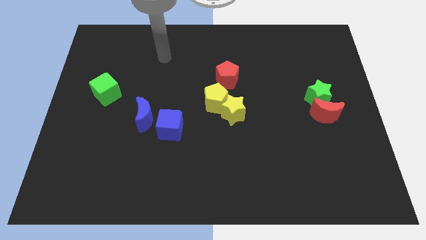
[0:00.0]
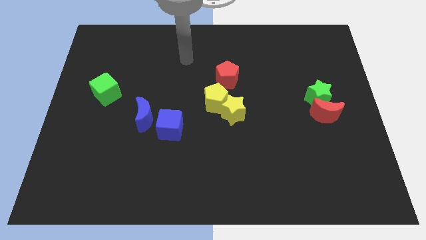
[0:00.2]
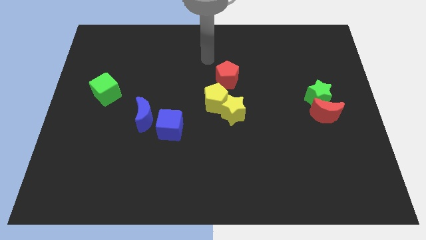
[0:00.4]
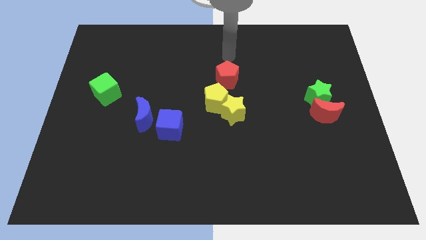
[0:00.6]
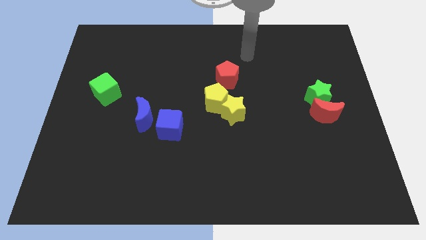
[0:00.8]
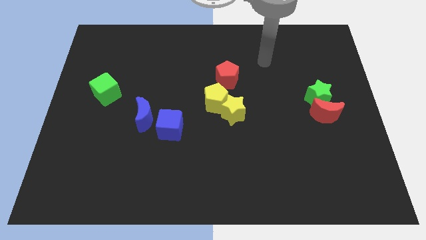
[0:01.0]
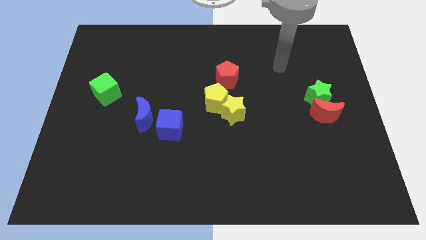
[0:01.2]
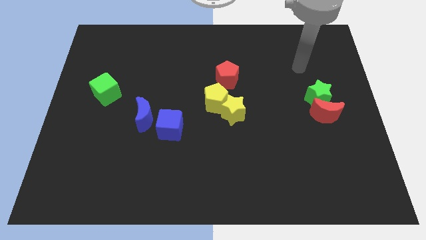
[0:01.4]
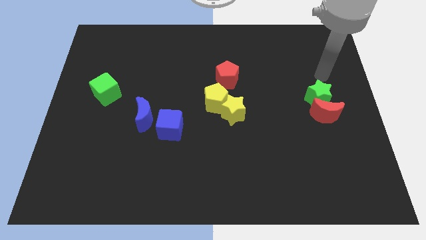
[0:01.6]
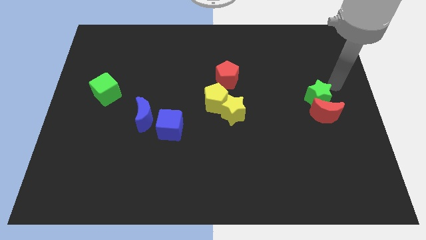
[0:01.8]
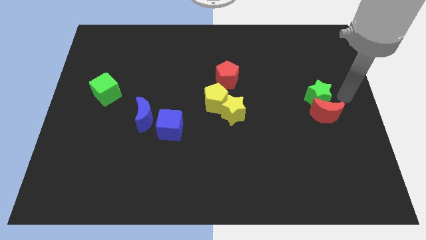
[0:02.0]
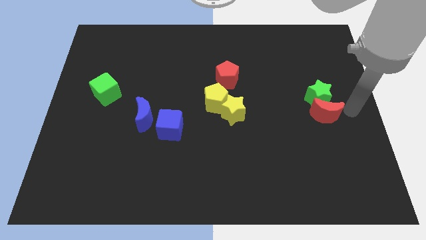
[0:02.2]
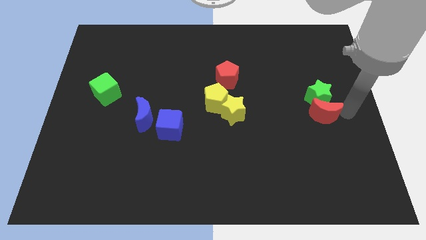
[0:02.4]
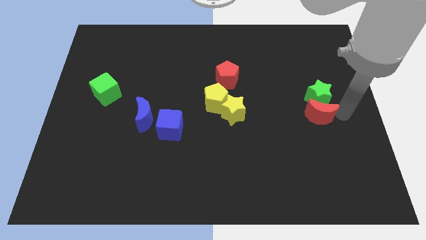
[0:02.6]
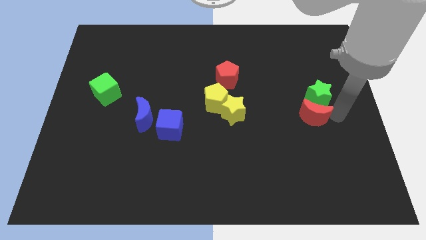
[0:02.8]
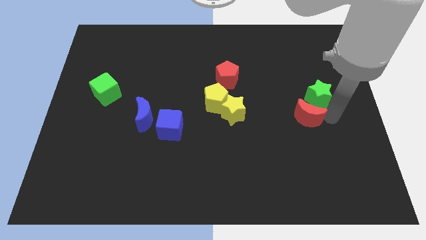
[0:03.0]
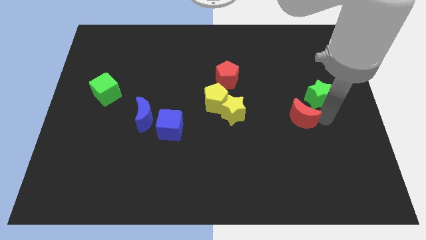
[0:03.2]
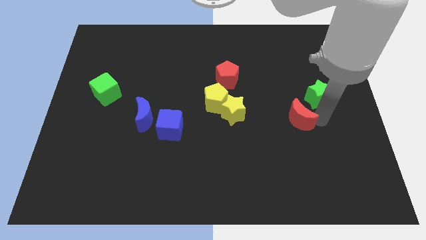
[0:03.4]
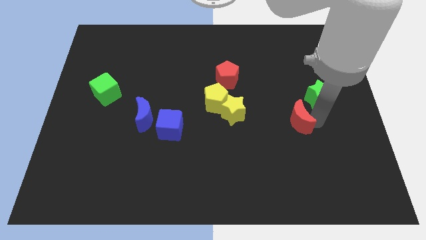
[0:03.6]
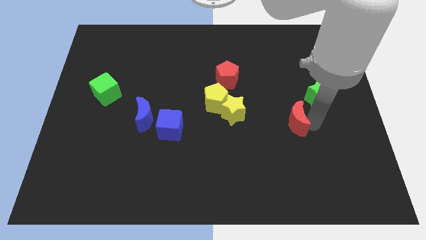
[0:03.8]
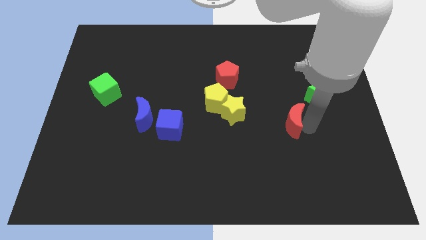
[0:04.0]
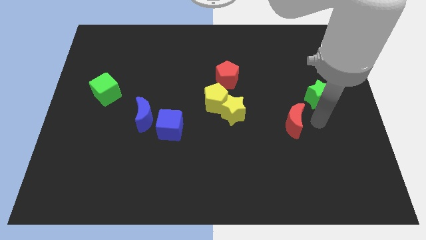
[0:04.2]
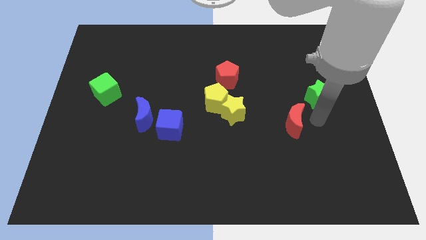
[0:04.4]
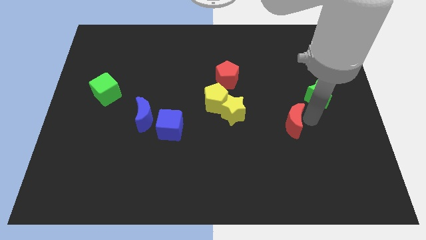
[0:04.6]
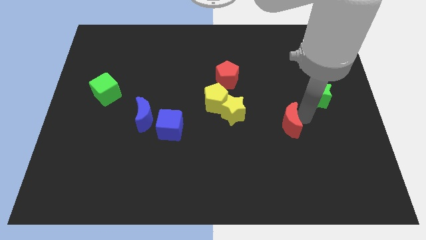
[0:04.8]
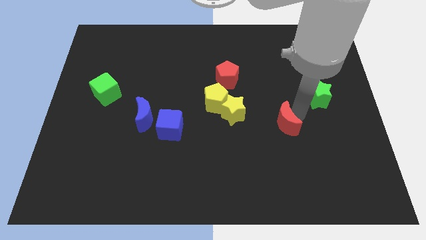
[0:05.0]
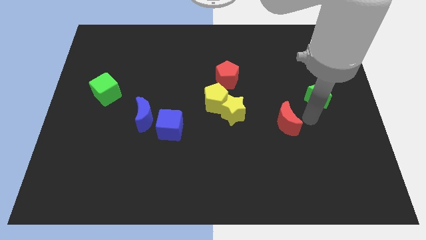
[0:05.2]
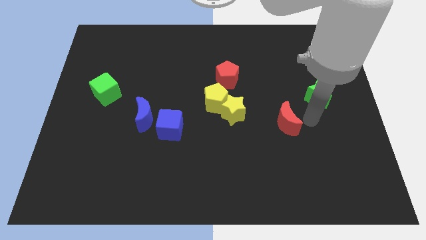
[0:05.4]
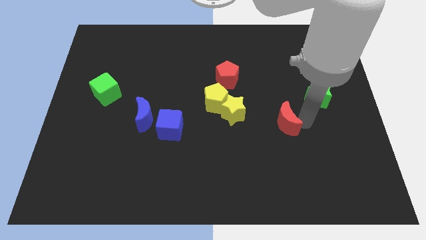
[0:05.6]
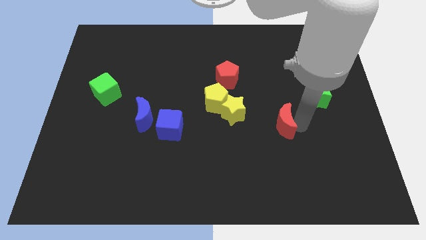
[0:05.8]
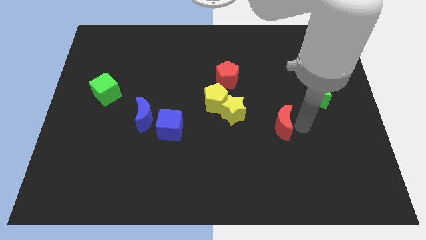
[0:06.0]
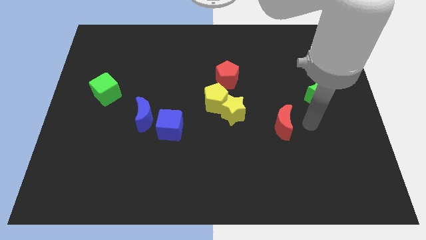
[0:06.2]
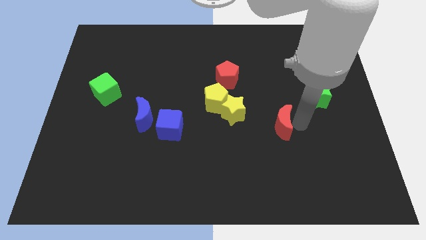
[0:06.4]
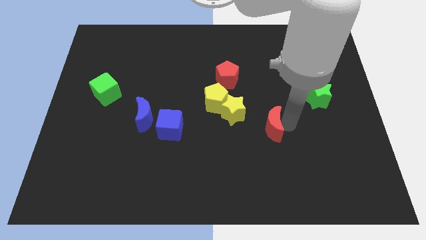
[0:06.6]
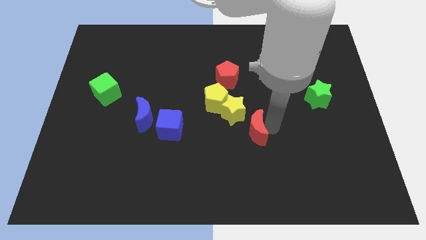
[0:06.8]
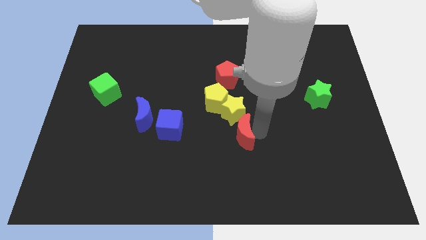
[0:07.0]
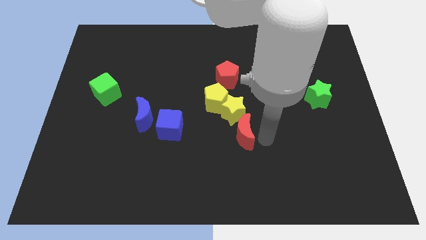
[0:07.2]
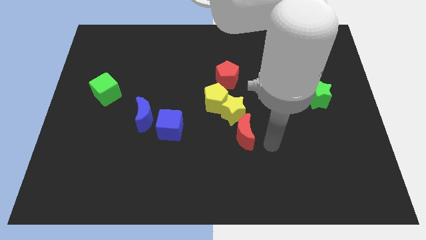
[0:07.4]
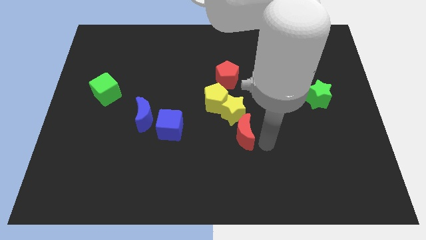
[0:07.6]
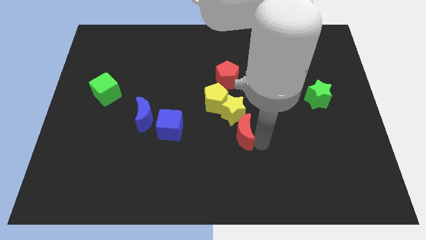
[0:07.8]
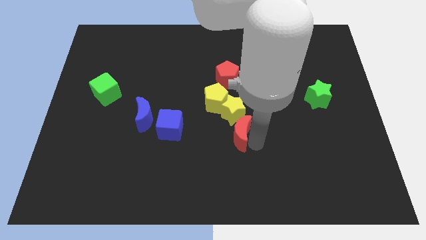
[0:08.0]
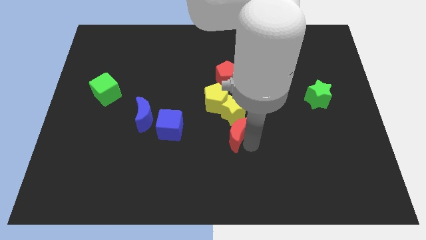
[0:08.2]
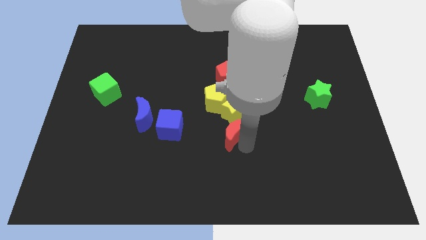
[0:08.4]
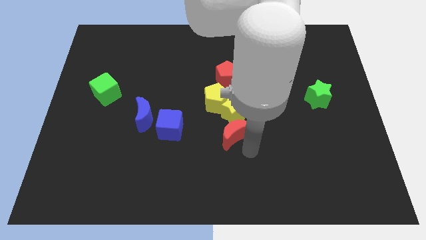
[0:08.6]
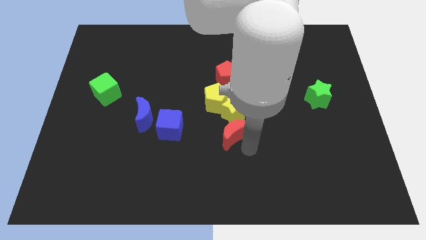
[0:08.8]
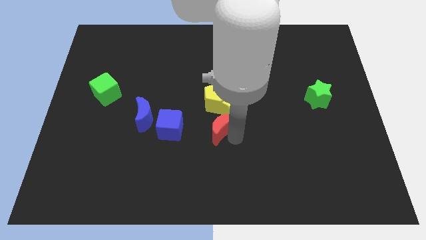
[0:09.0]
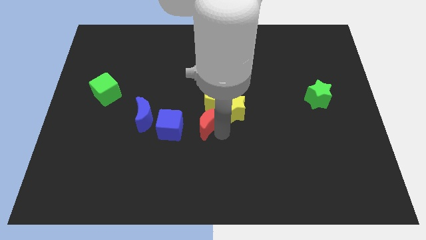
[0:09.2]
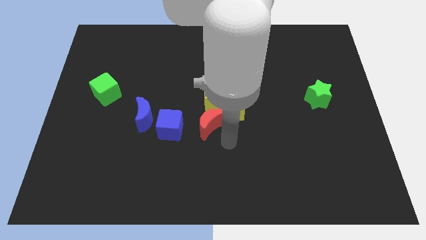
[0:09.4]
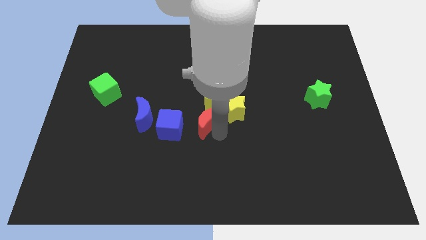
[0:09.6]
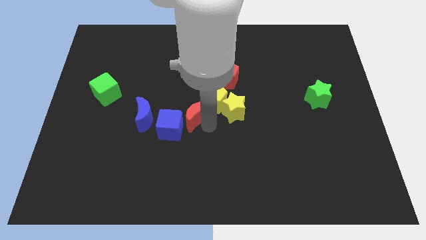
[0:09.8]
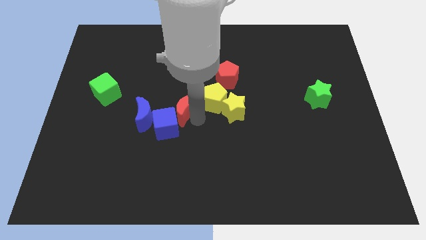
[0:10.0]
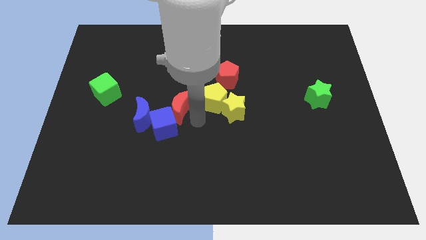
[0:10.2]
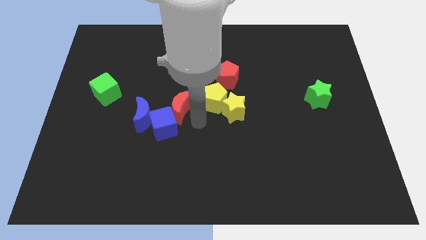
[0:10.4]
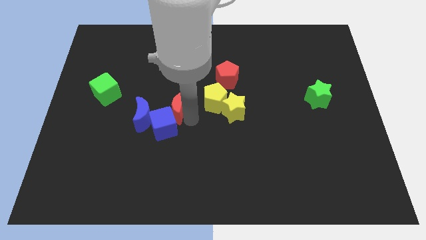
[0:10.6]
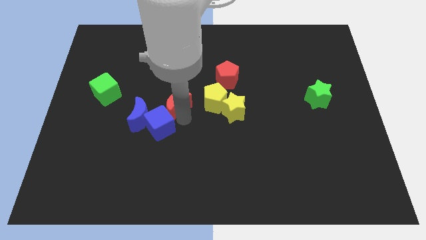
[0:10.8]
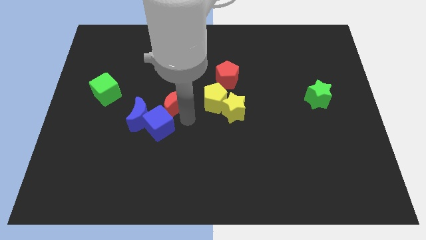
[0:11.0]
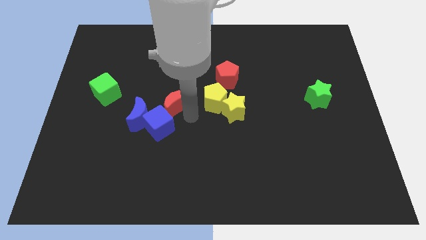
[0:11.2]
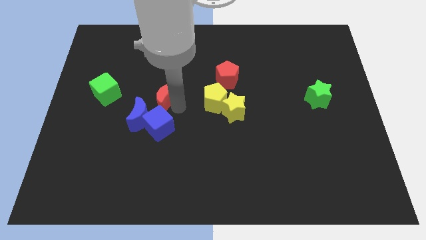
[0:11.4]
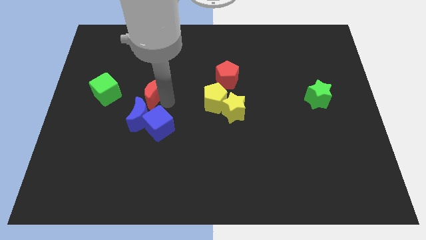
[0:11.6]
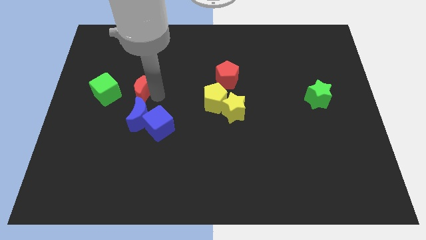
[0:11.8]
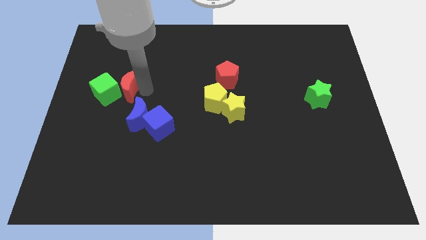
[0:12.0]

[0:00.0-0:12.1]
move the red moon close to the green cube
